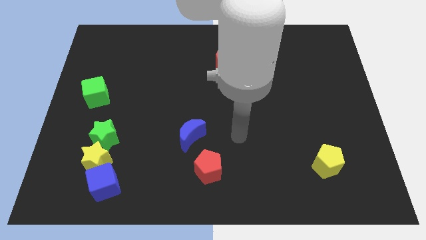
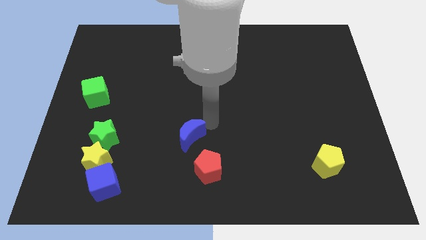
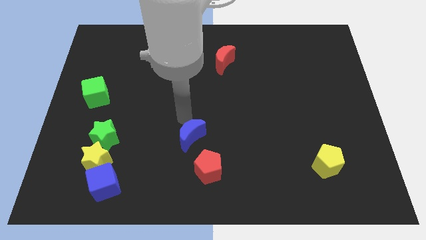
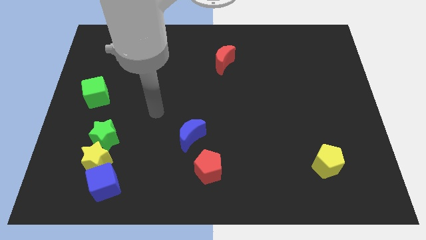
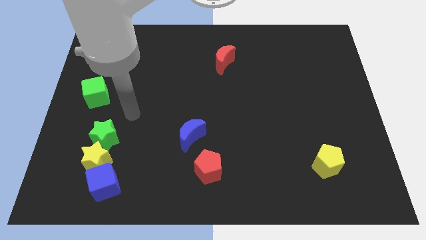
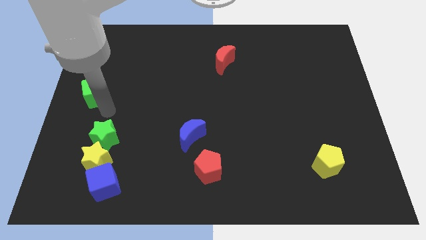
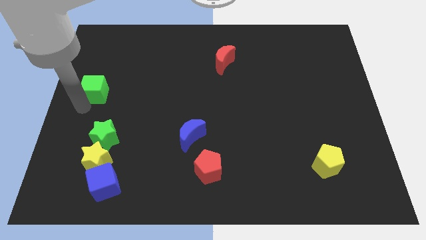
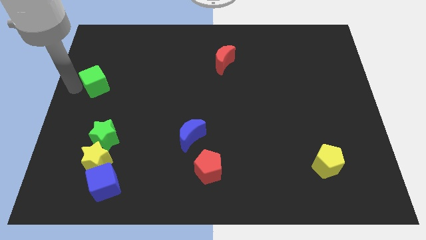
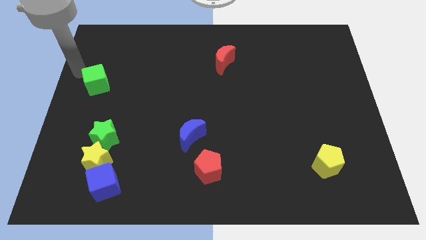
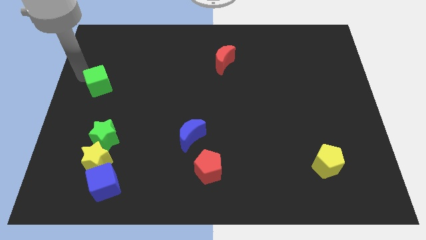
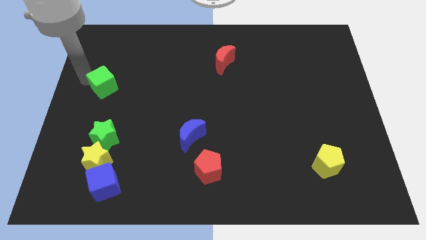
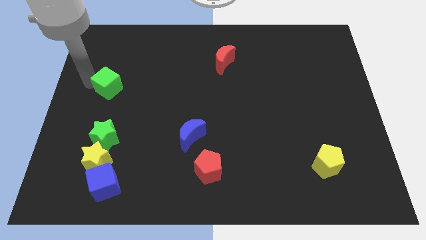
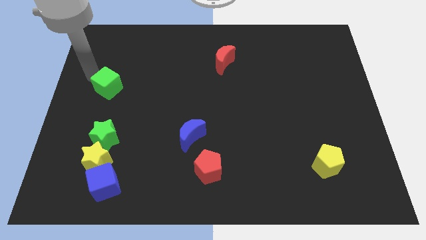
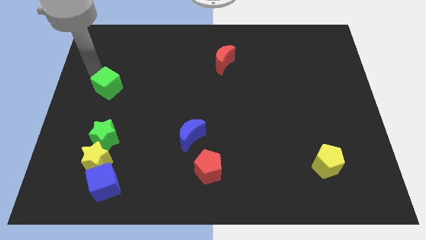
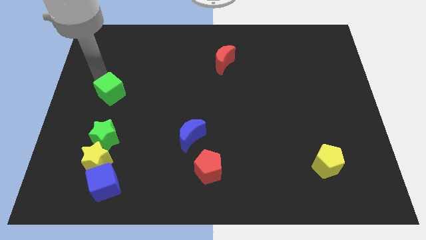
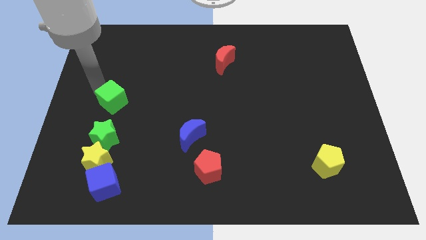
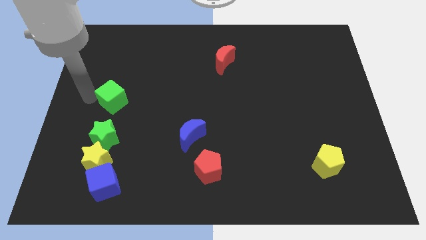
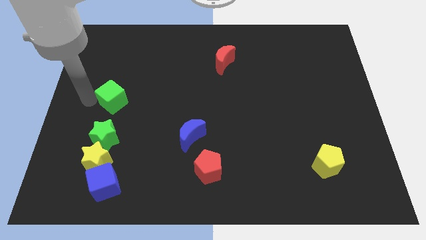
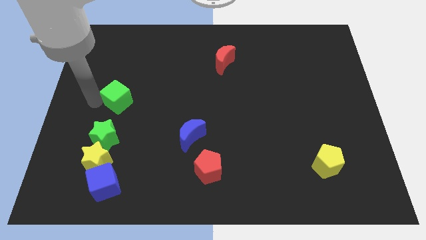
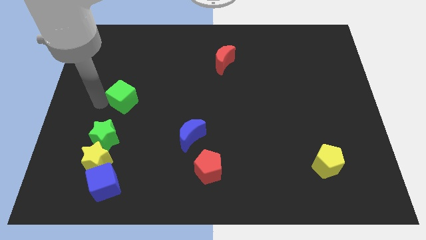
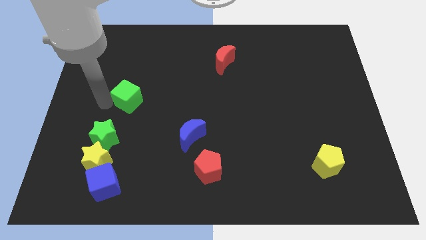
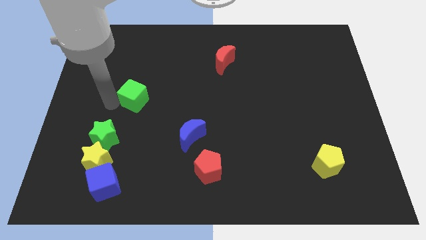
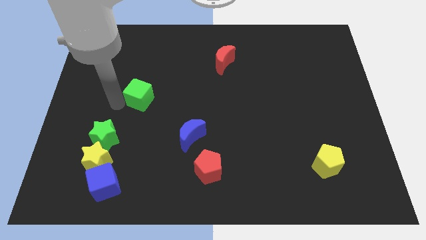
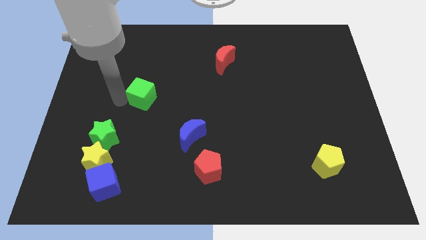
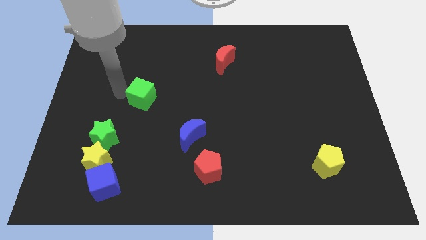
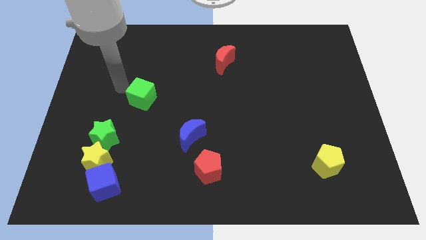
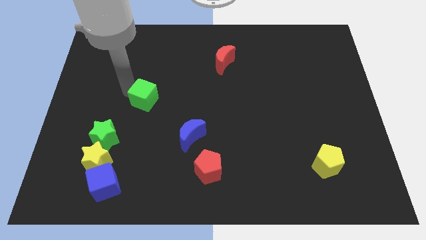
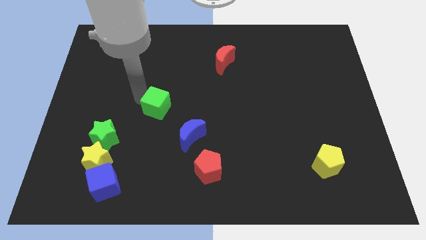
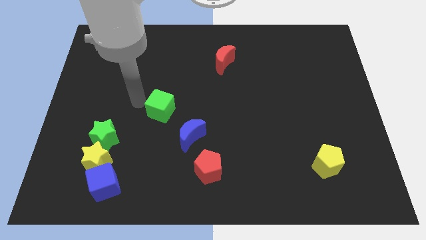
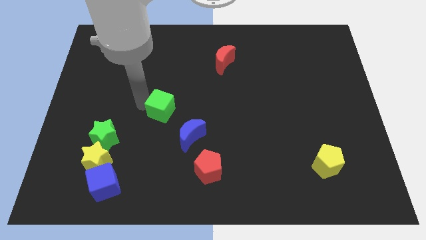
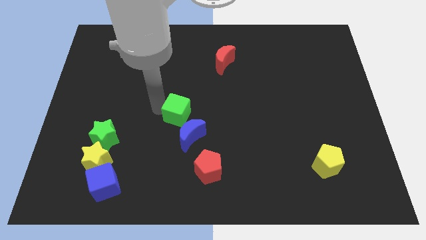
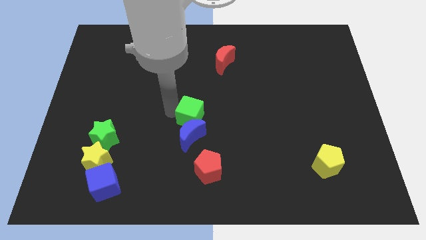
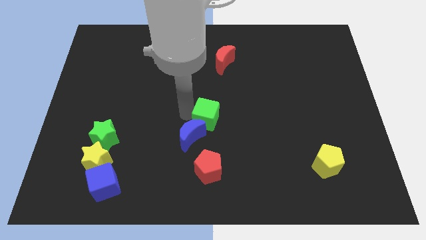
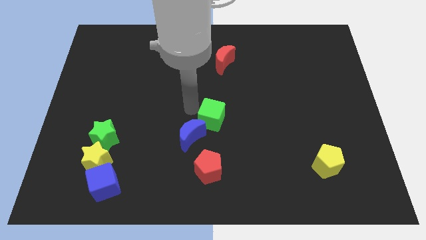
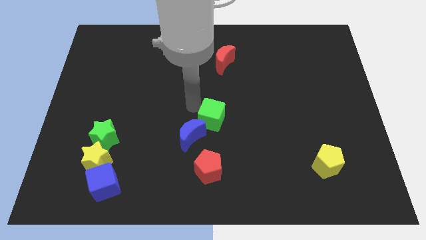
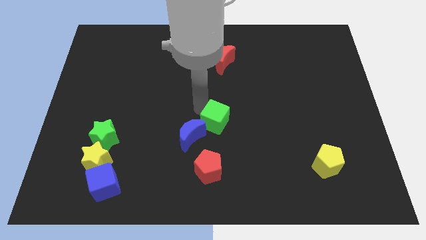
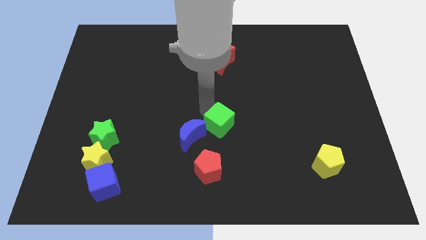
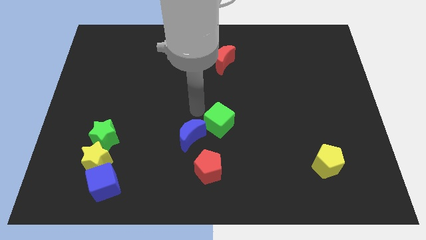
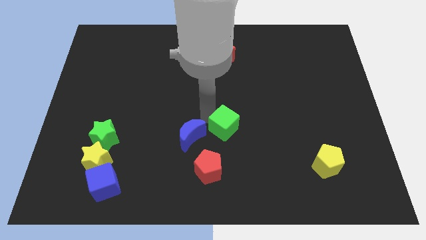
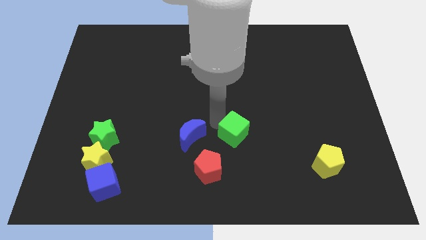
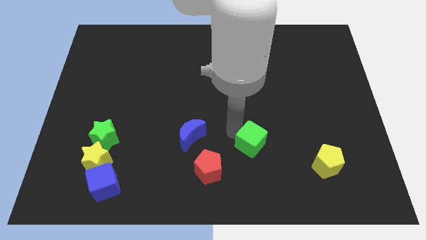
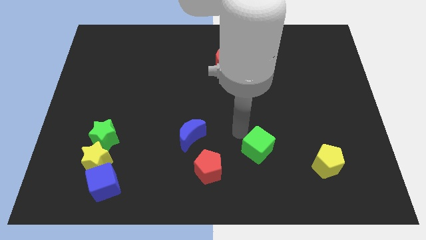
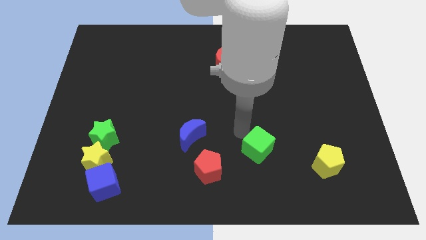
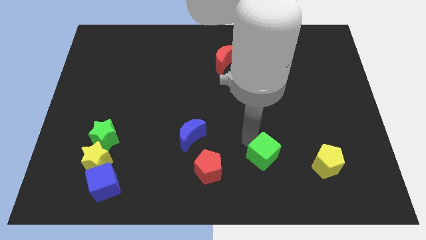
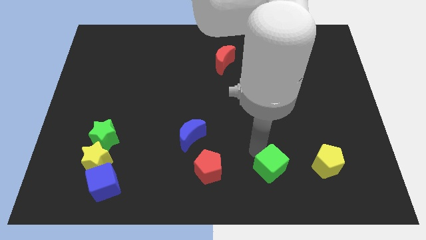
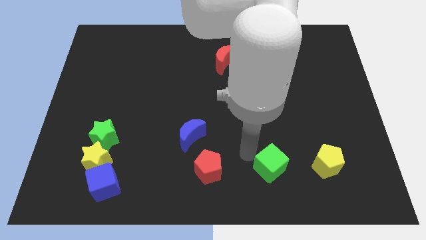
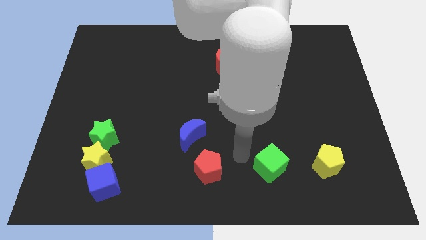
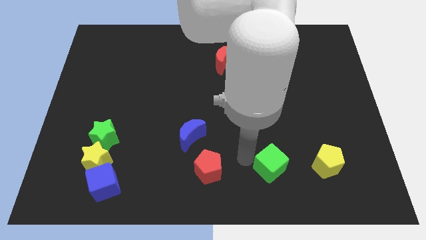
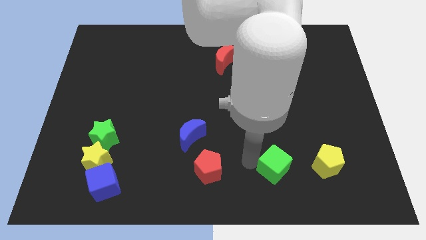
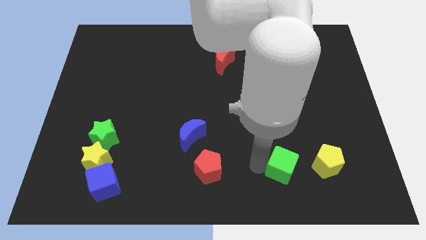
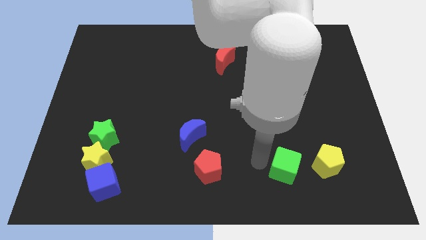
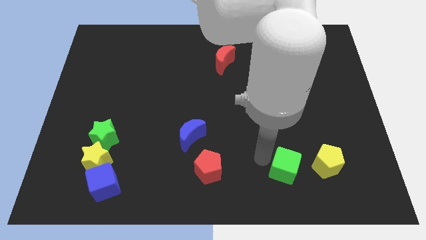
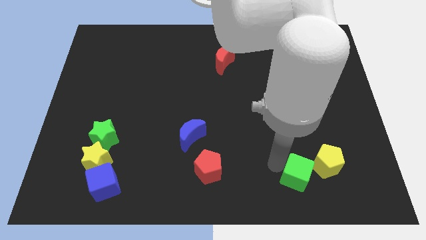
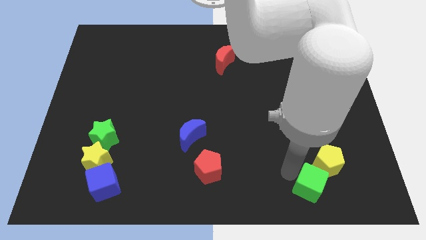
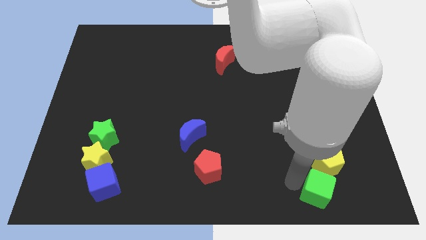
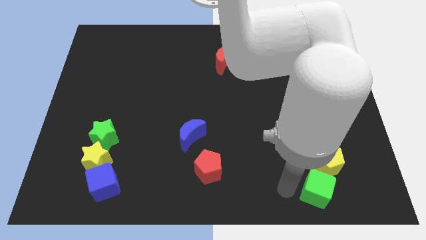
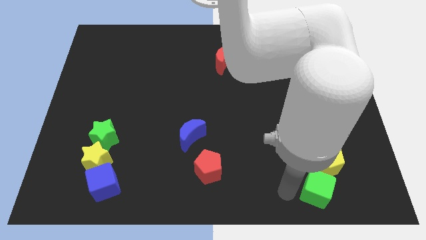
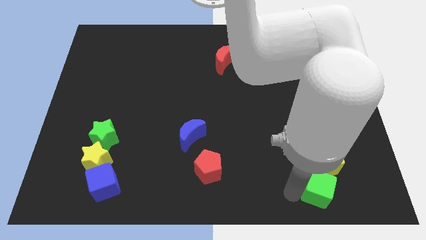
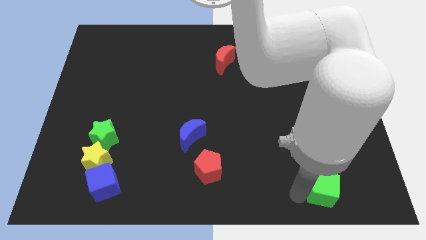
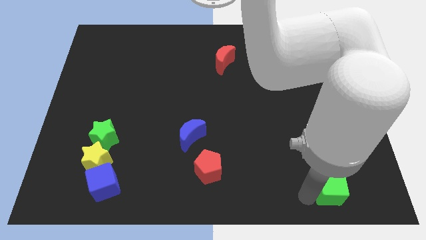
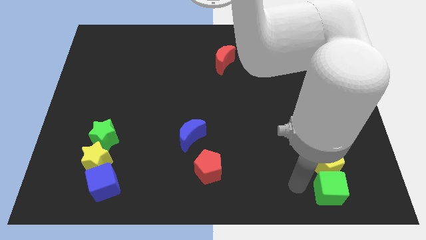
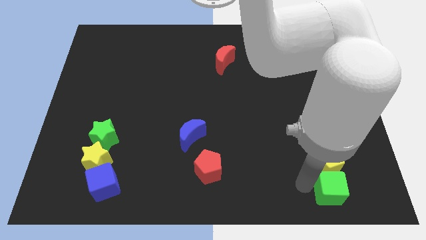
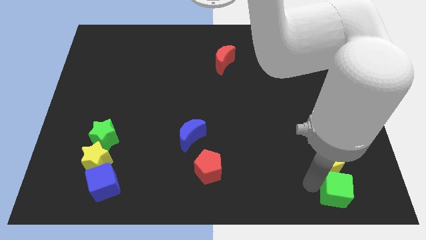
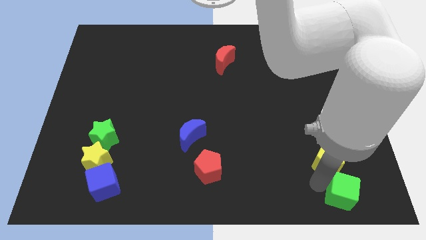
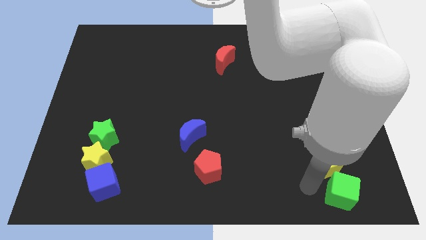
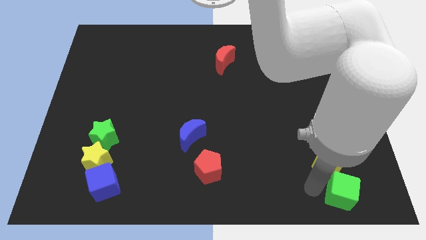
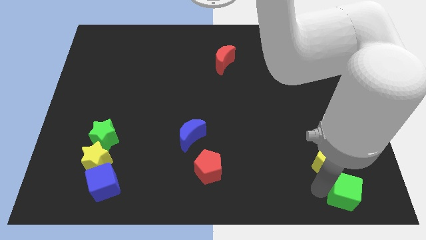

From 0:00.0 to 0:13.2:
put the green cube to the bottom right of the board
